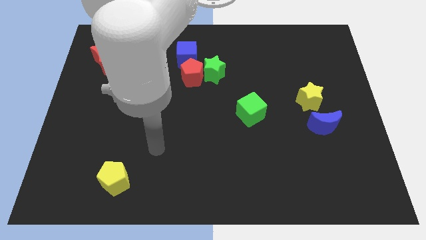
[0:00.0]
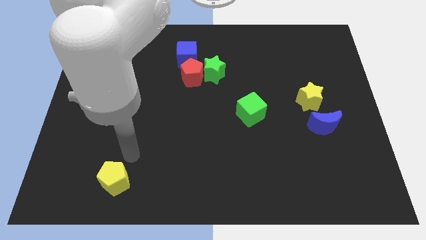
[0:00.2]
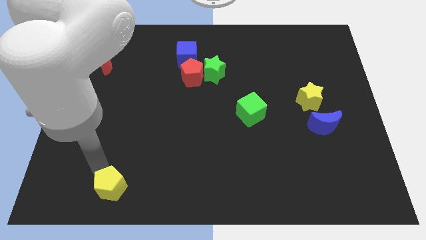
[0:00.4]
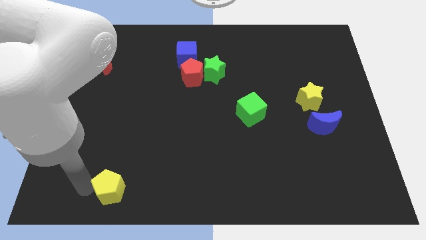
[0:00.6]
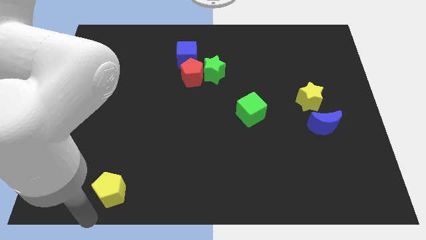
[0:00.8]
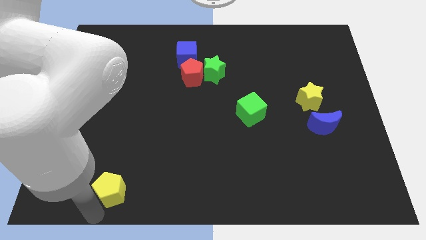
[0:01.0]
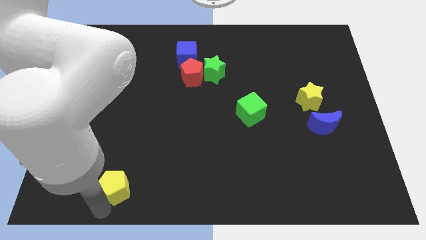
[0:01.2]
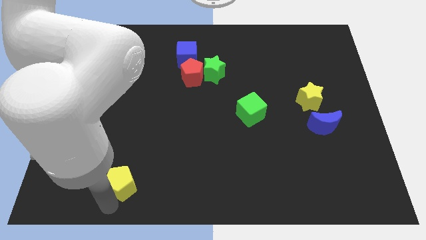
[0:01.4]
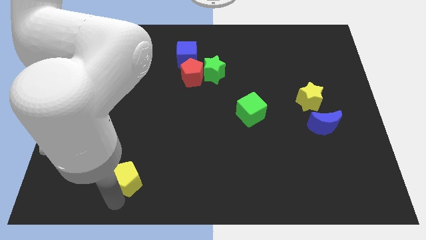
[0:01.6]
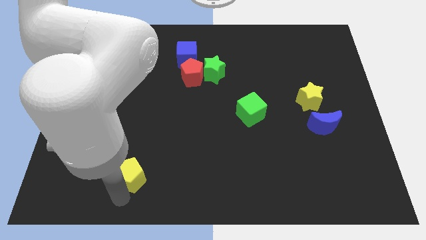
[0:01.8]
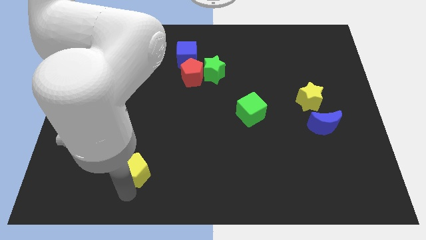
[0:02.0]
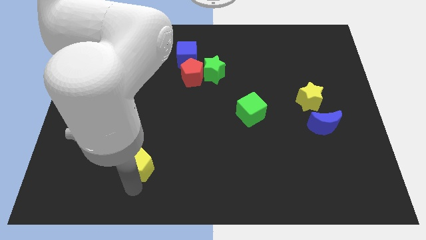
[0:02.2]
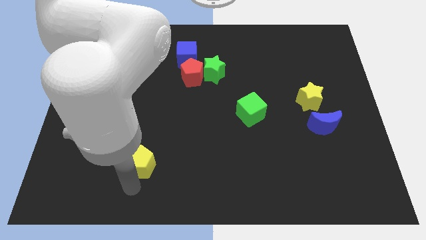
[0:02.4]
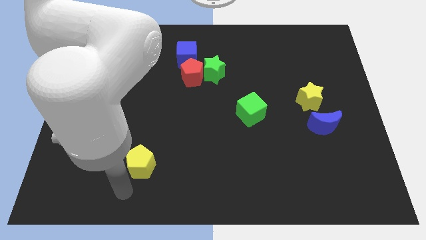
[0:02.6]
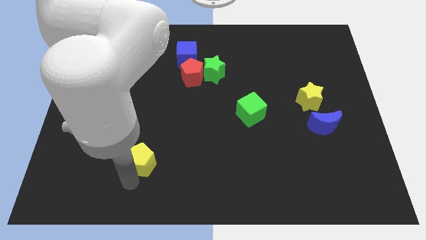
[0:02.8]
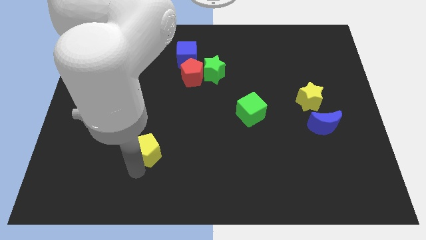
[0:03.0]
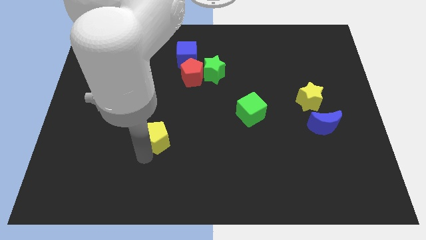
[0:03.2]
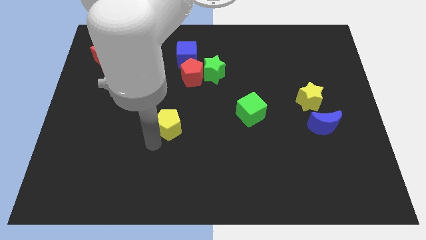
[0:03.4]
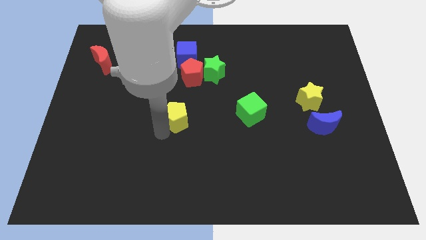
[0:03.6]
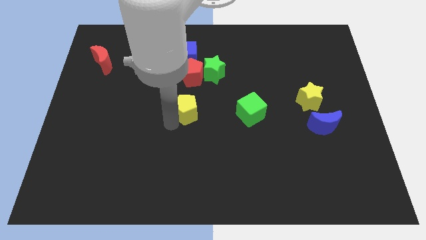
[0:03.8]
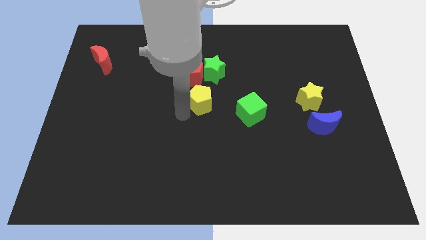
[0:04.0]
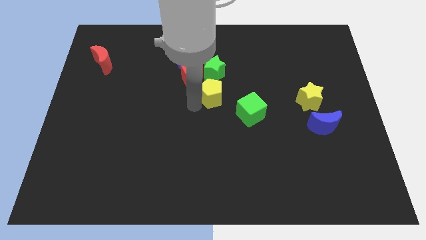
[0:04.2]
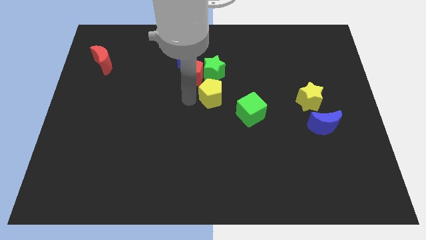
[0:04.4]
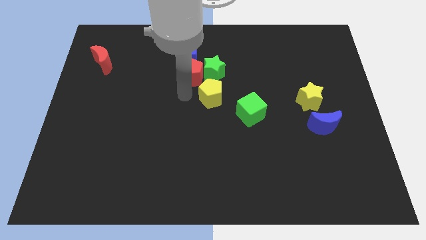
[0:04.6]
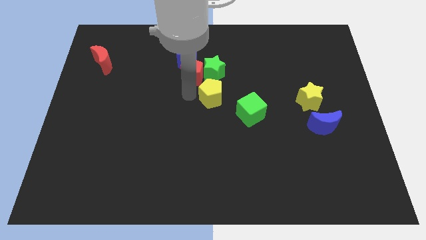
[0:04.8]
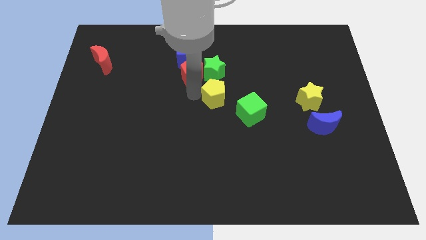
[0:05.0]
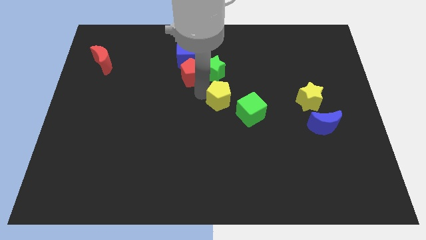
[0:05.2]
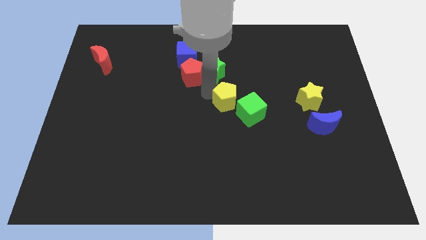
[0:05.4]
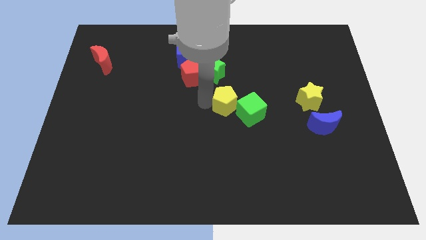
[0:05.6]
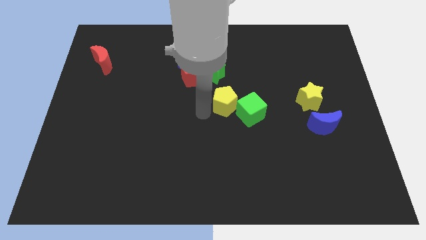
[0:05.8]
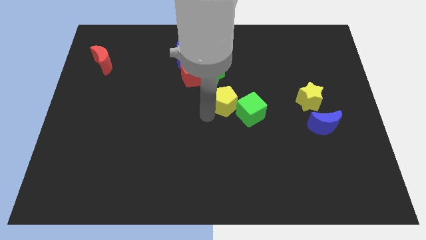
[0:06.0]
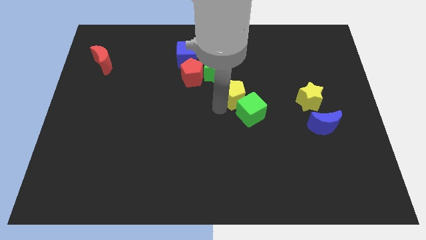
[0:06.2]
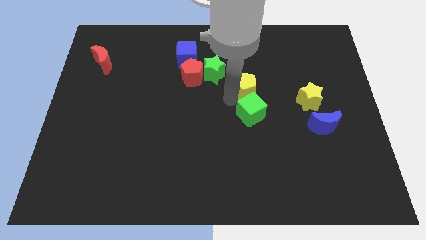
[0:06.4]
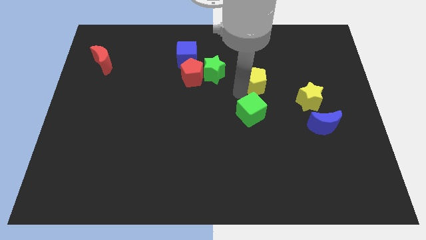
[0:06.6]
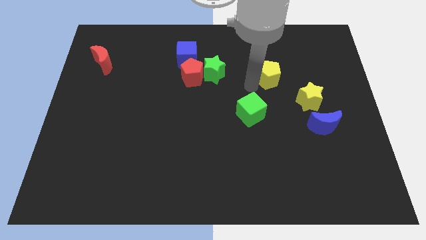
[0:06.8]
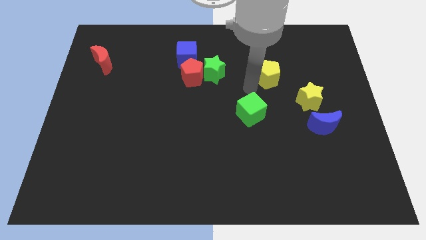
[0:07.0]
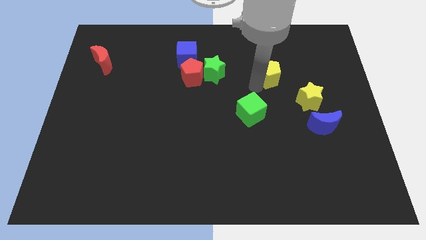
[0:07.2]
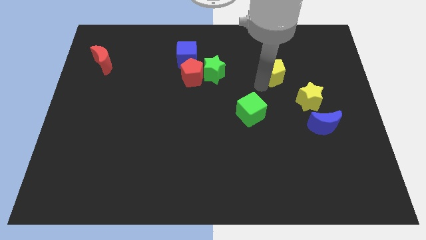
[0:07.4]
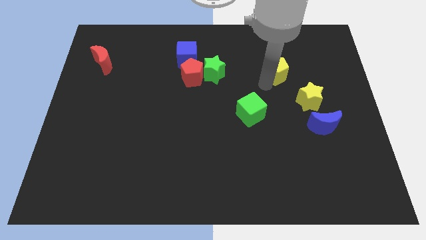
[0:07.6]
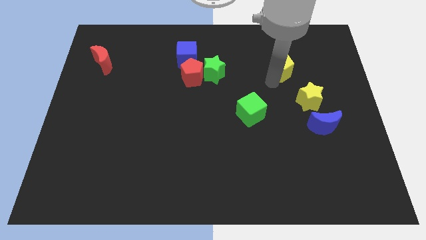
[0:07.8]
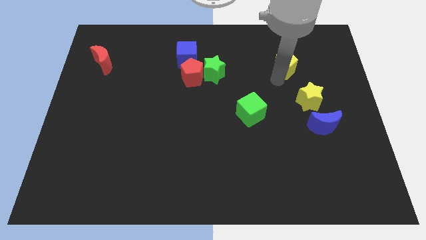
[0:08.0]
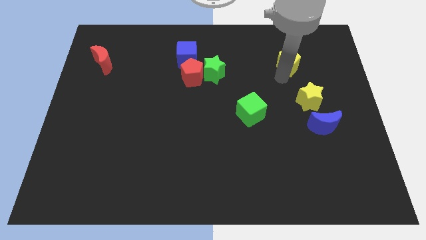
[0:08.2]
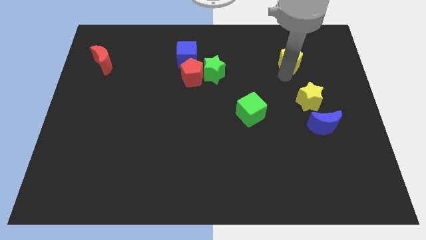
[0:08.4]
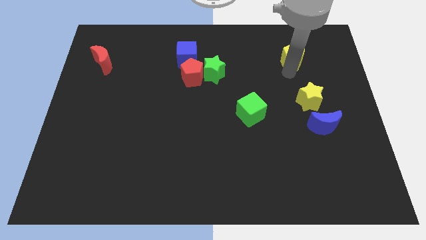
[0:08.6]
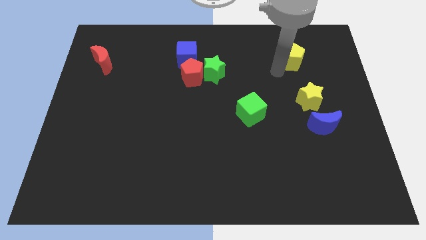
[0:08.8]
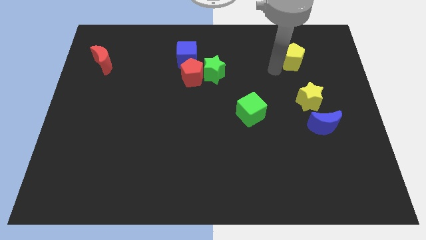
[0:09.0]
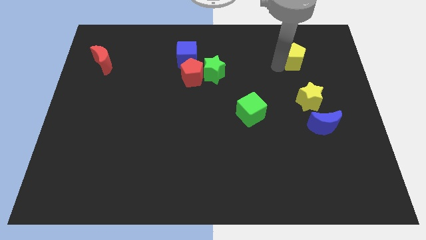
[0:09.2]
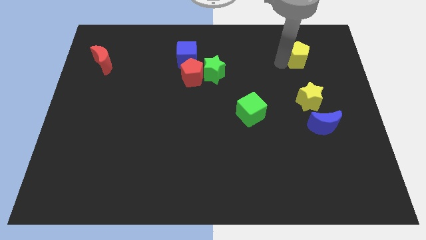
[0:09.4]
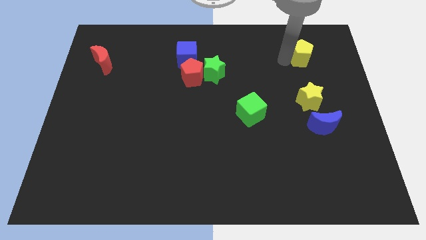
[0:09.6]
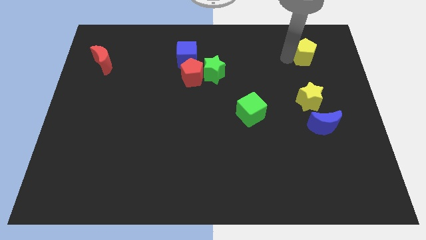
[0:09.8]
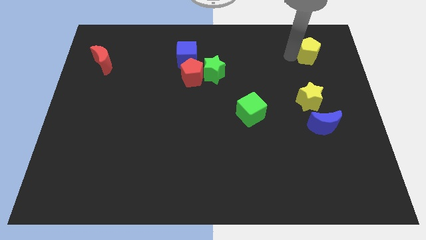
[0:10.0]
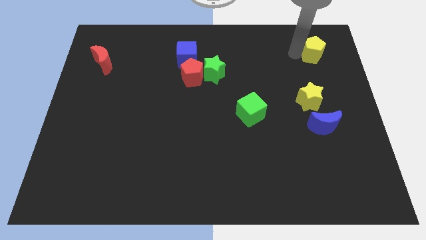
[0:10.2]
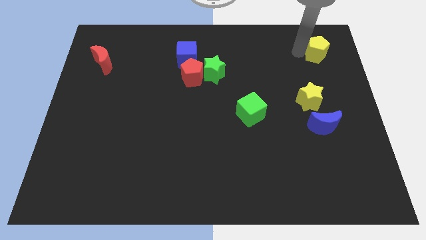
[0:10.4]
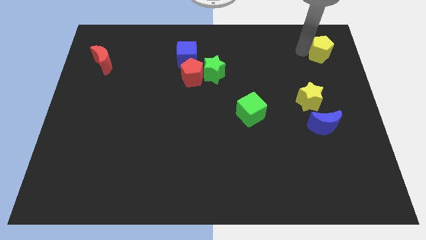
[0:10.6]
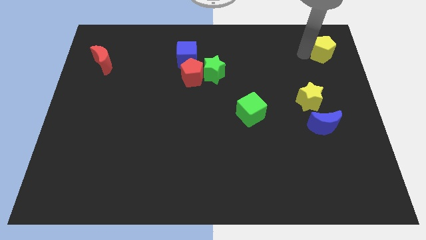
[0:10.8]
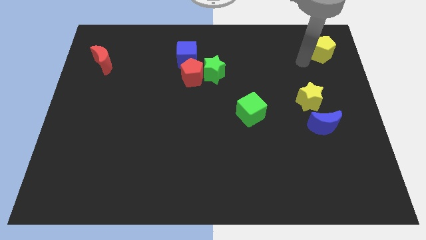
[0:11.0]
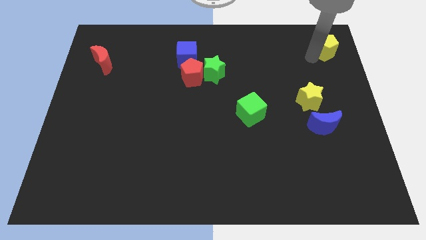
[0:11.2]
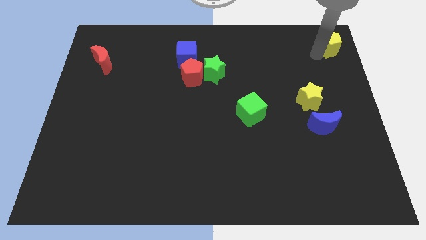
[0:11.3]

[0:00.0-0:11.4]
put the yellow pentagon to the upper right corner

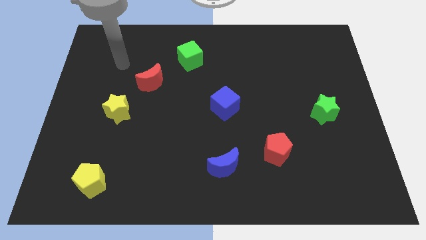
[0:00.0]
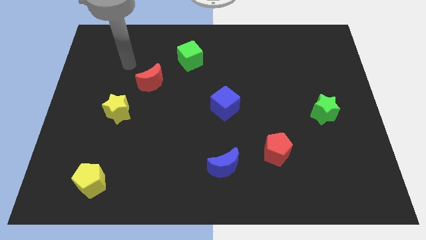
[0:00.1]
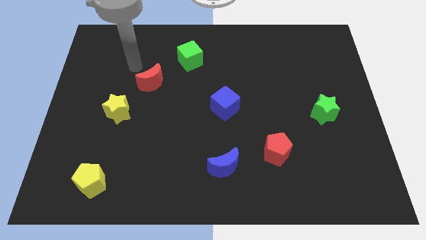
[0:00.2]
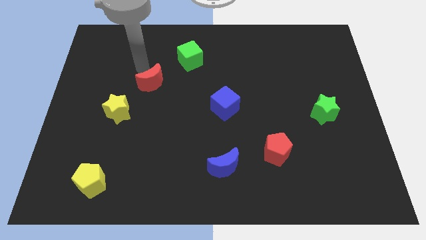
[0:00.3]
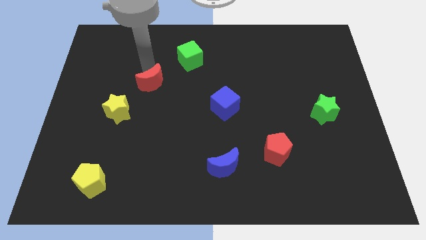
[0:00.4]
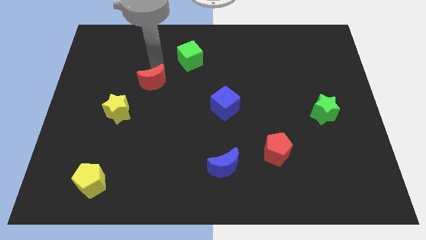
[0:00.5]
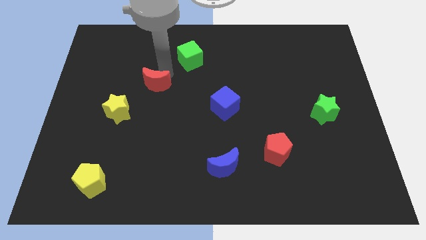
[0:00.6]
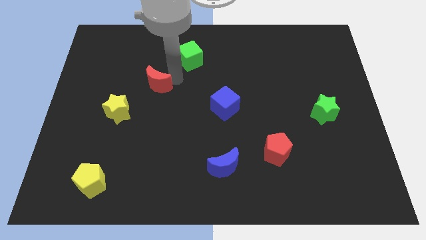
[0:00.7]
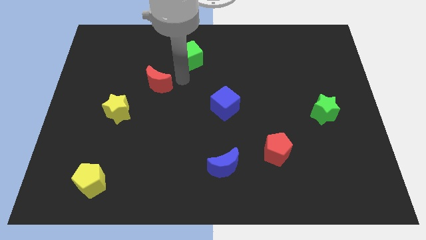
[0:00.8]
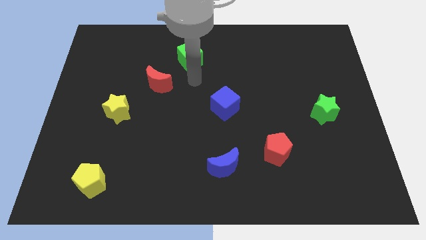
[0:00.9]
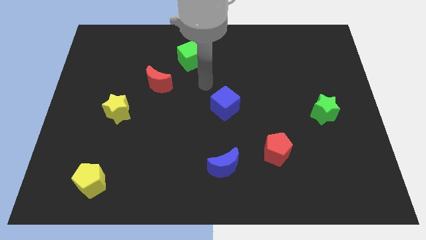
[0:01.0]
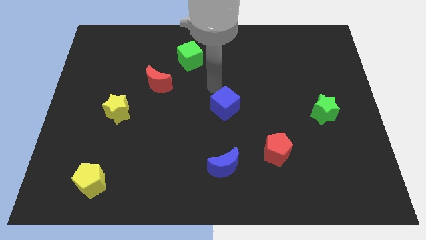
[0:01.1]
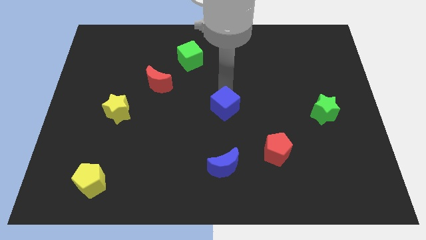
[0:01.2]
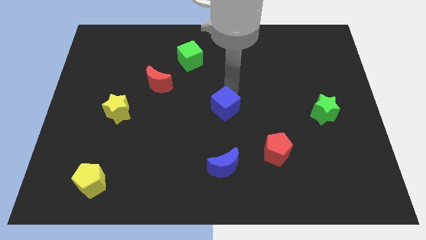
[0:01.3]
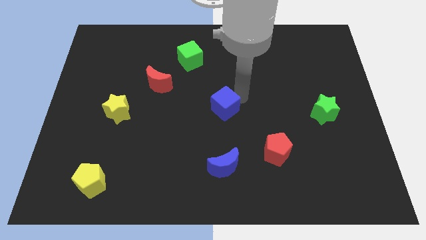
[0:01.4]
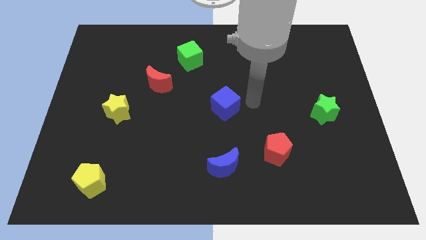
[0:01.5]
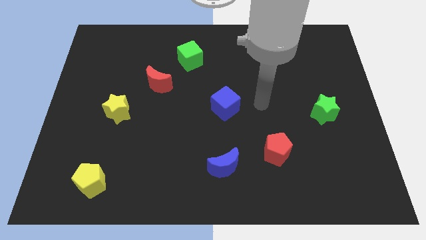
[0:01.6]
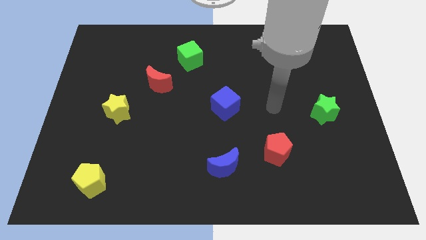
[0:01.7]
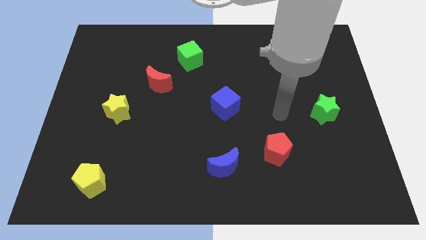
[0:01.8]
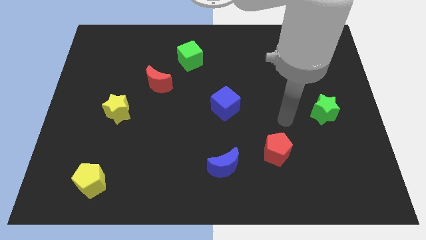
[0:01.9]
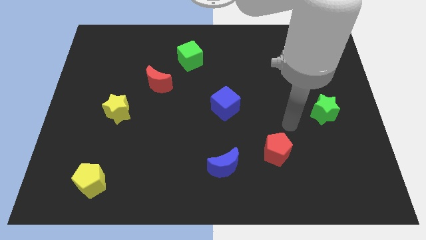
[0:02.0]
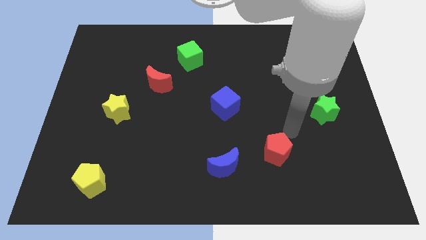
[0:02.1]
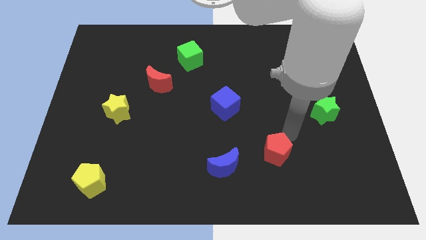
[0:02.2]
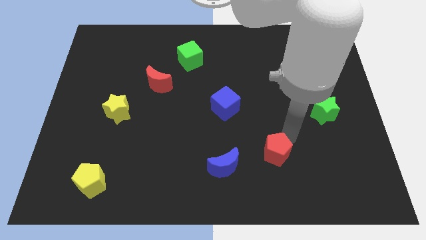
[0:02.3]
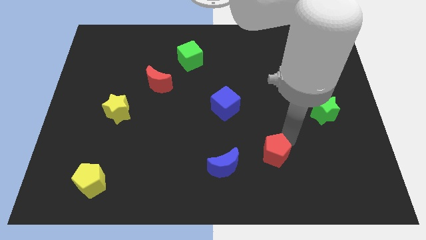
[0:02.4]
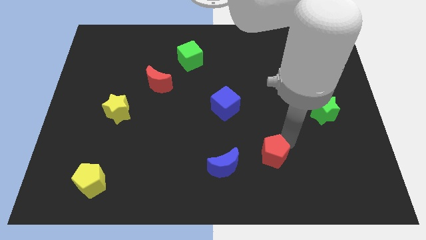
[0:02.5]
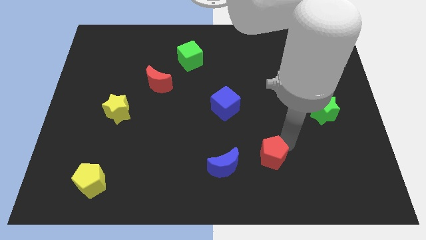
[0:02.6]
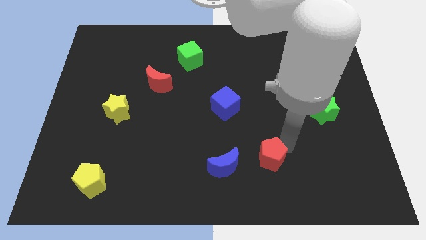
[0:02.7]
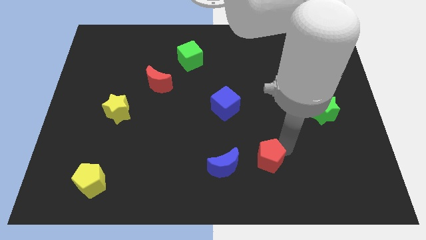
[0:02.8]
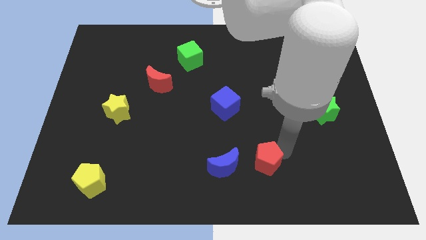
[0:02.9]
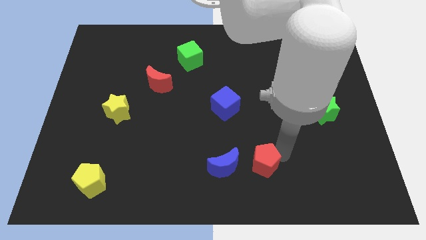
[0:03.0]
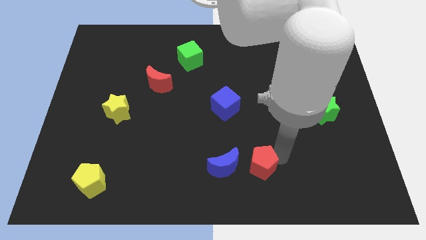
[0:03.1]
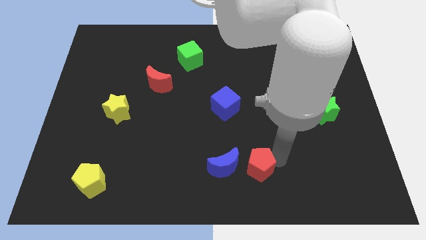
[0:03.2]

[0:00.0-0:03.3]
push the red pentagon to the bottom side
